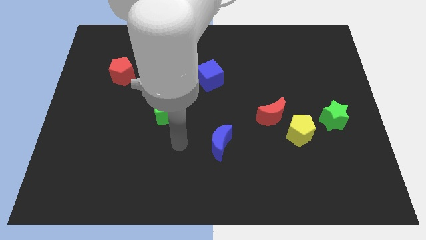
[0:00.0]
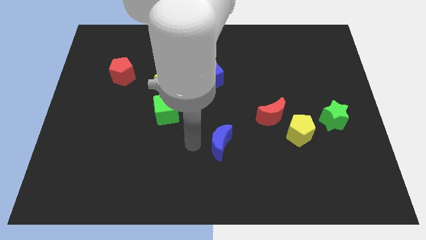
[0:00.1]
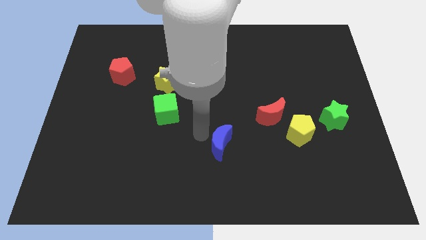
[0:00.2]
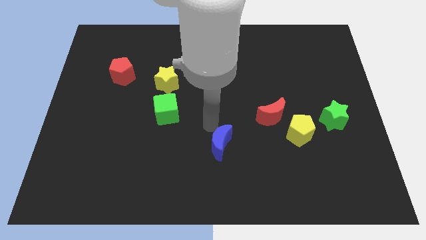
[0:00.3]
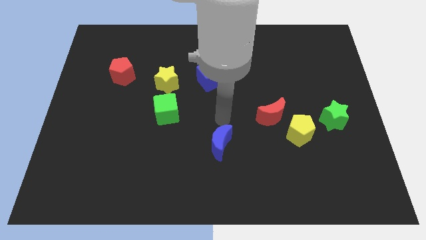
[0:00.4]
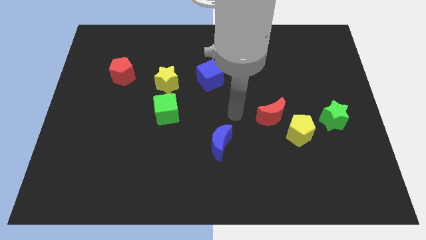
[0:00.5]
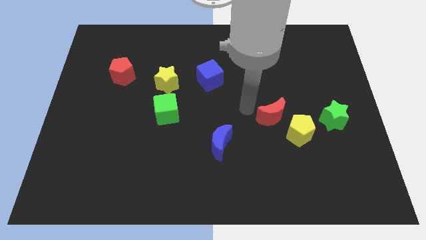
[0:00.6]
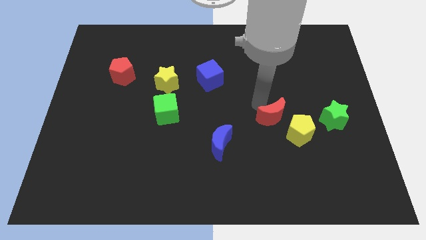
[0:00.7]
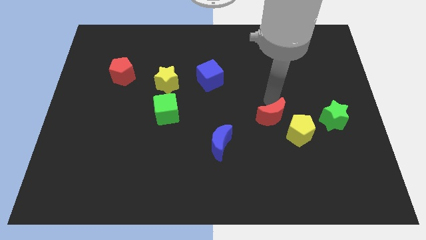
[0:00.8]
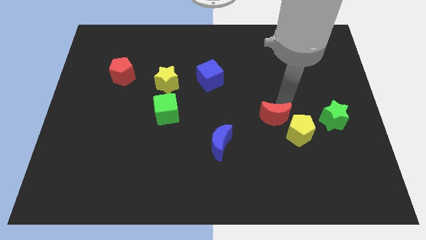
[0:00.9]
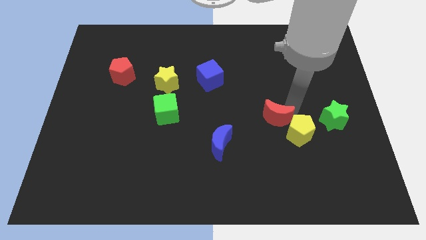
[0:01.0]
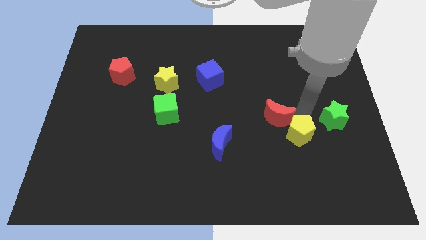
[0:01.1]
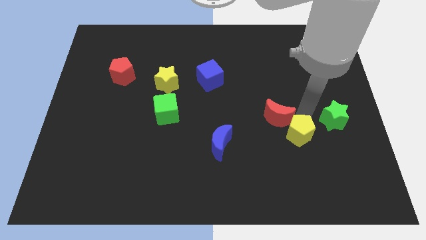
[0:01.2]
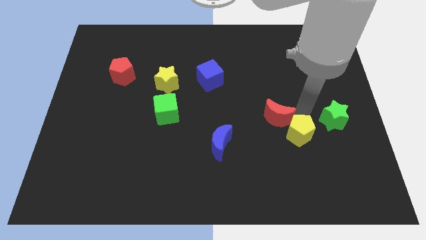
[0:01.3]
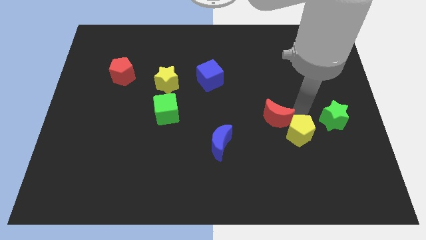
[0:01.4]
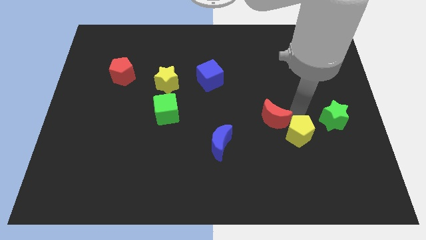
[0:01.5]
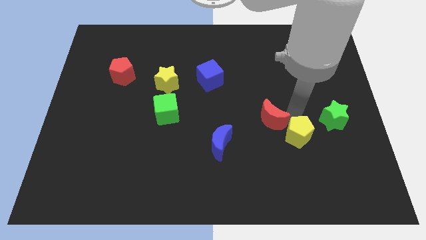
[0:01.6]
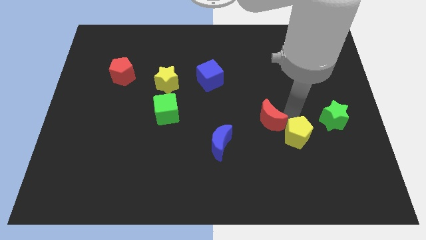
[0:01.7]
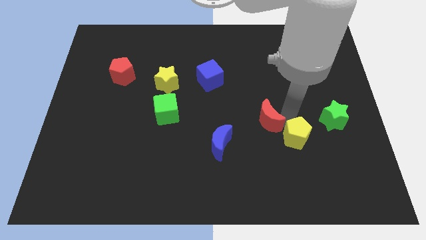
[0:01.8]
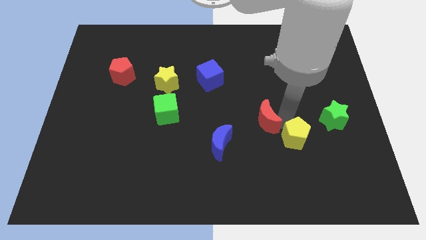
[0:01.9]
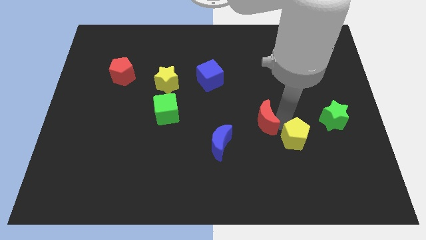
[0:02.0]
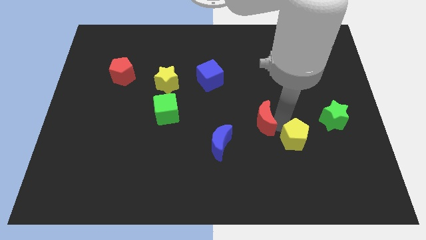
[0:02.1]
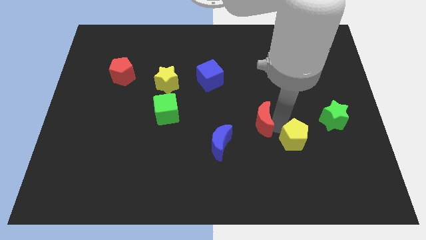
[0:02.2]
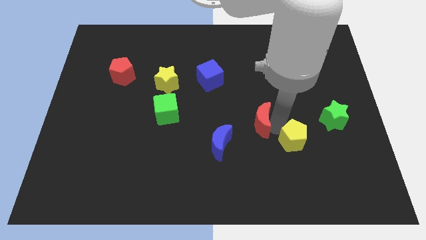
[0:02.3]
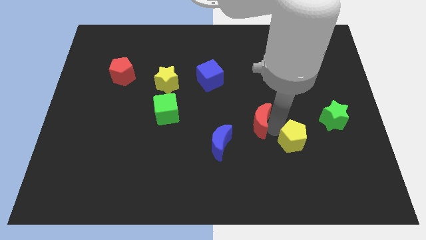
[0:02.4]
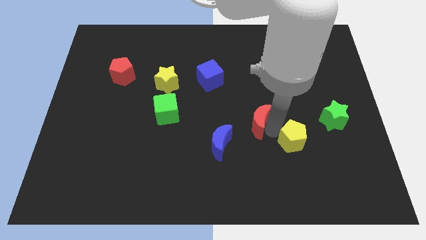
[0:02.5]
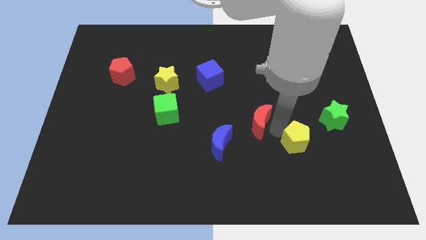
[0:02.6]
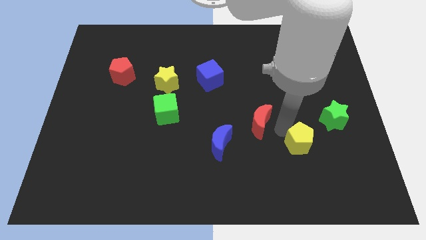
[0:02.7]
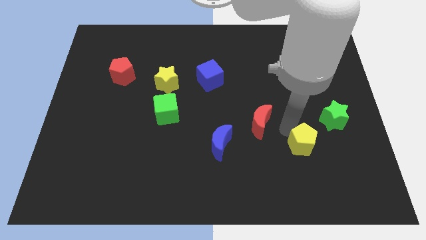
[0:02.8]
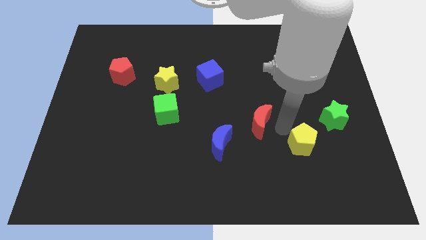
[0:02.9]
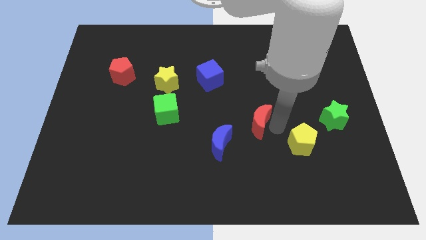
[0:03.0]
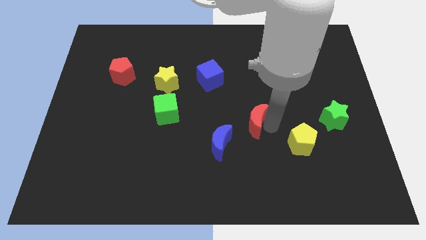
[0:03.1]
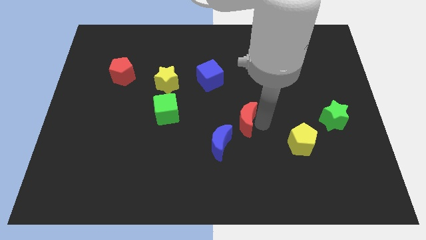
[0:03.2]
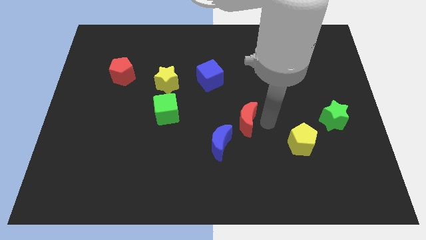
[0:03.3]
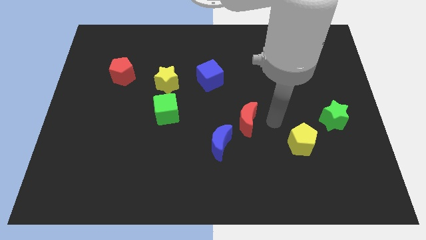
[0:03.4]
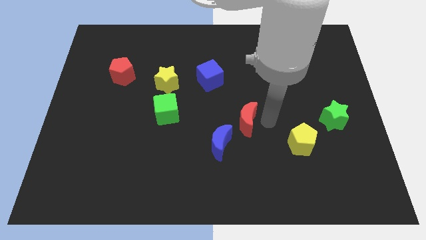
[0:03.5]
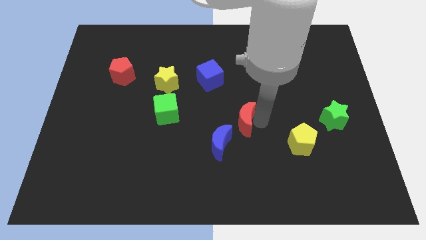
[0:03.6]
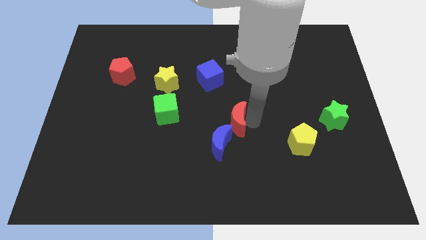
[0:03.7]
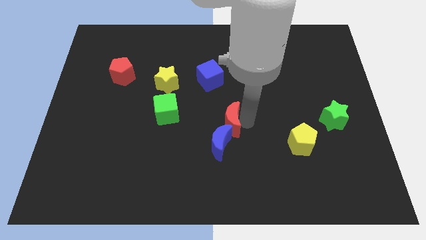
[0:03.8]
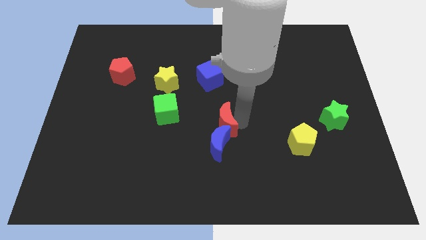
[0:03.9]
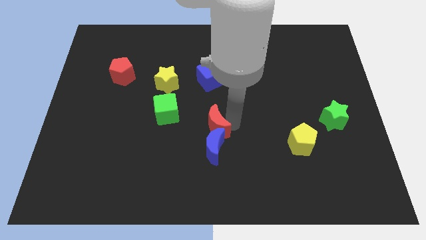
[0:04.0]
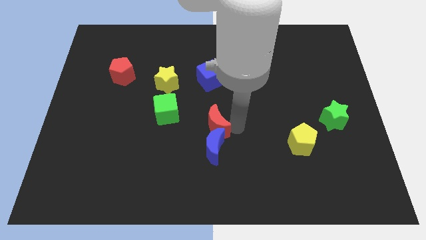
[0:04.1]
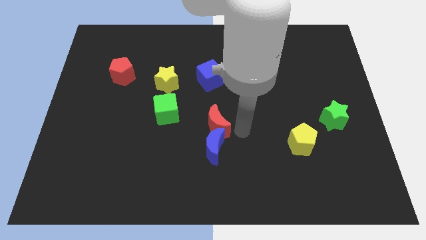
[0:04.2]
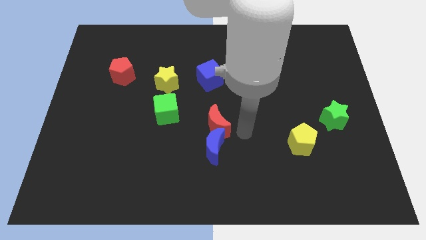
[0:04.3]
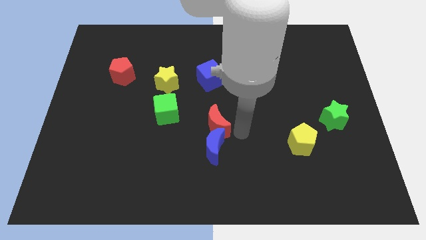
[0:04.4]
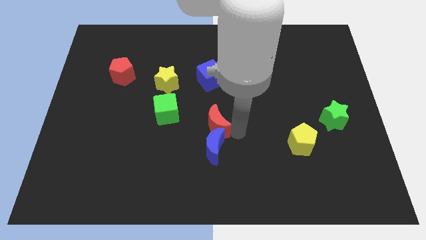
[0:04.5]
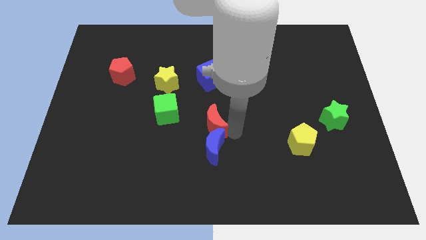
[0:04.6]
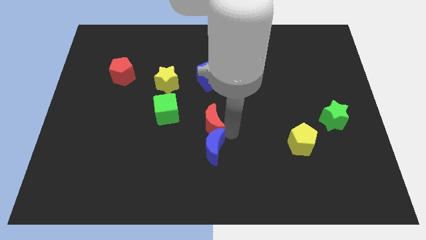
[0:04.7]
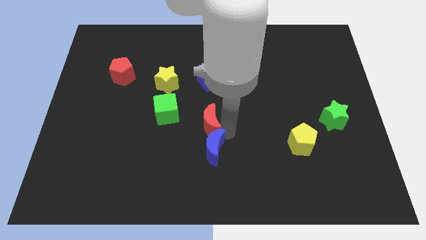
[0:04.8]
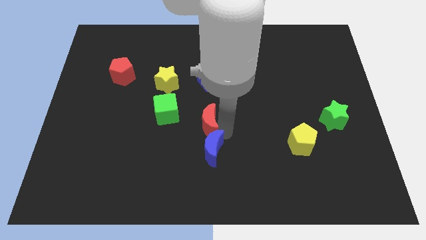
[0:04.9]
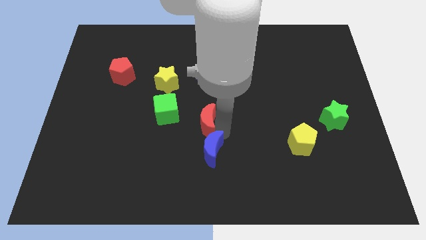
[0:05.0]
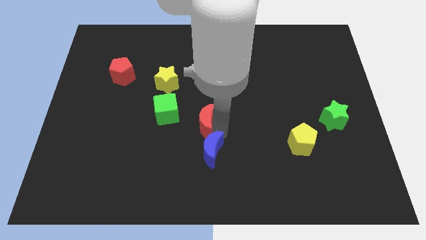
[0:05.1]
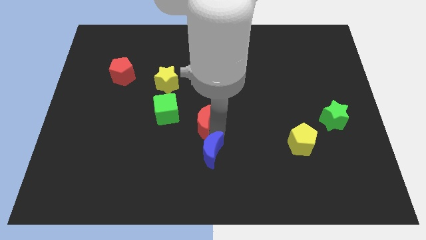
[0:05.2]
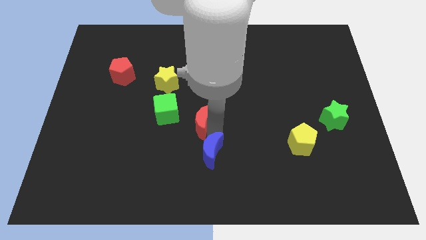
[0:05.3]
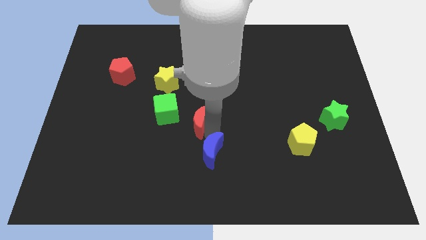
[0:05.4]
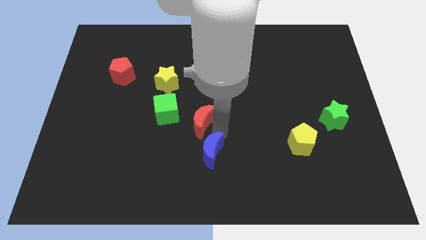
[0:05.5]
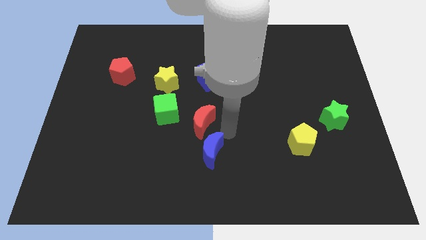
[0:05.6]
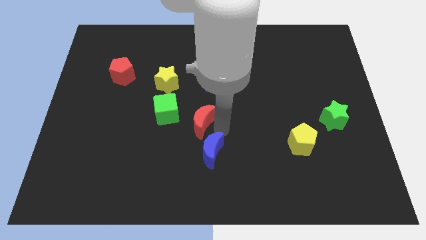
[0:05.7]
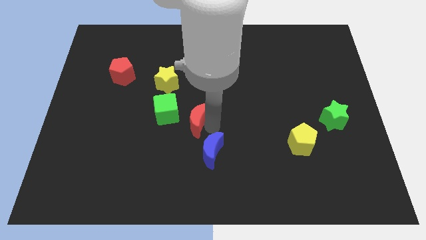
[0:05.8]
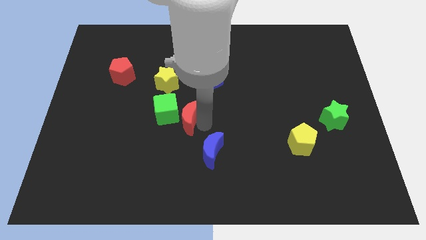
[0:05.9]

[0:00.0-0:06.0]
slide the red moon towards the green cube

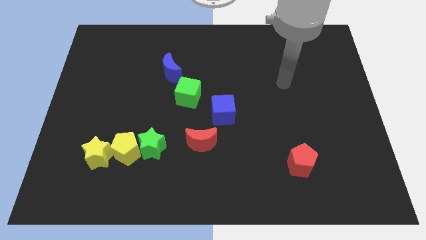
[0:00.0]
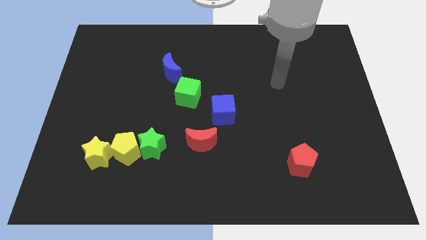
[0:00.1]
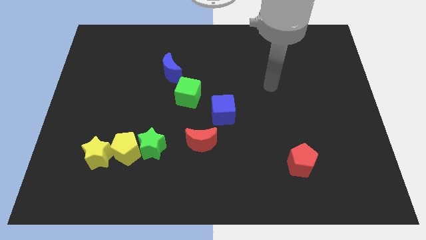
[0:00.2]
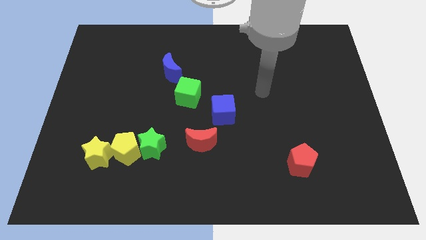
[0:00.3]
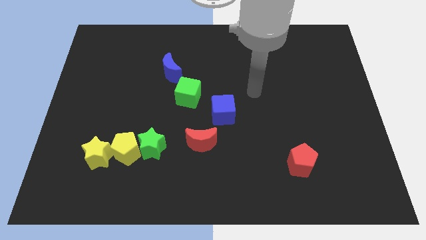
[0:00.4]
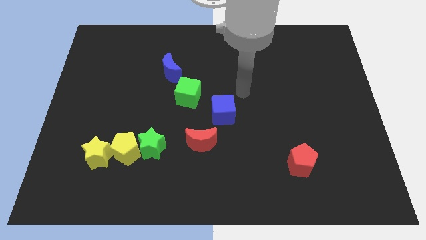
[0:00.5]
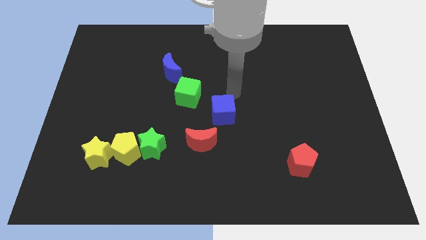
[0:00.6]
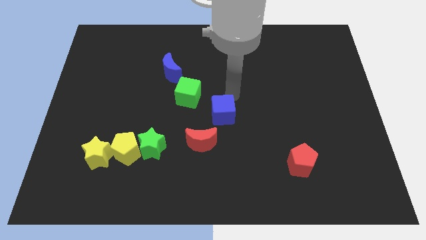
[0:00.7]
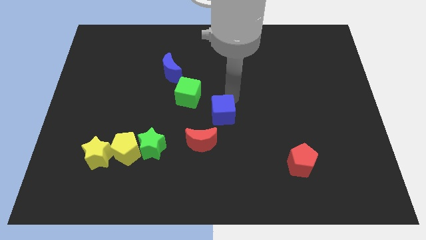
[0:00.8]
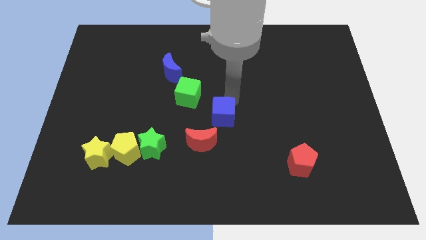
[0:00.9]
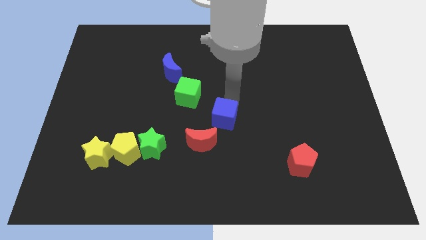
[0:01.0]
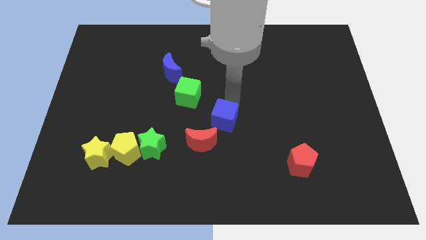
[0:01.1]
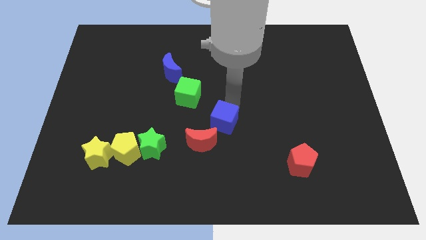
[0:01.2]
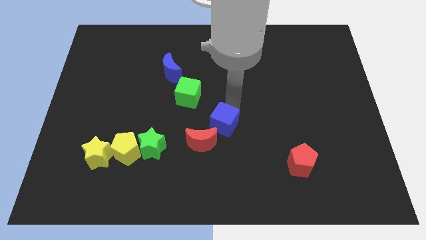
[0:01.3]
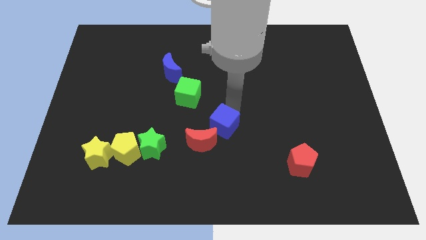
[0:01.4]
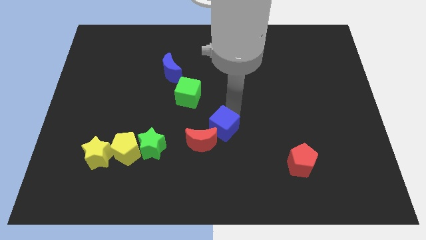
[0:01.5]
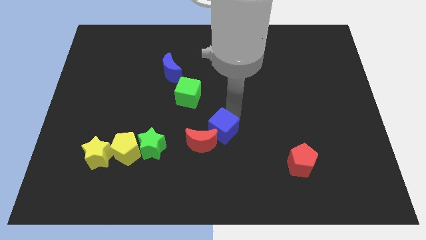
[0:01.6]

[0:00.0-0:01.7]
put the blue cube next to the red moon
